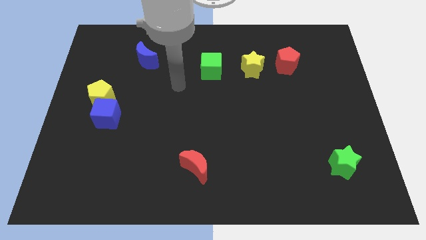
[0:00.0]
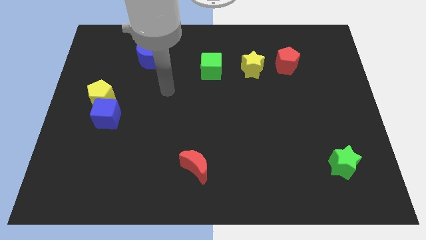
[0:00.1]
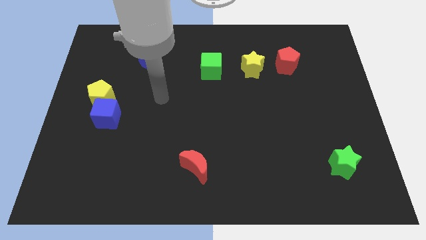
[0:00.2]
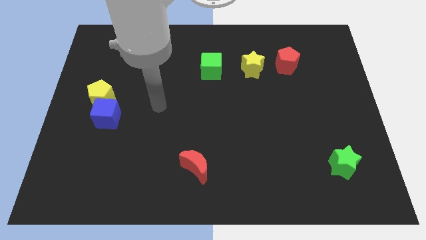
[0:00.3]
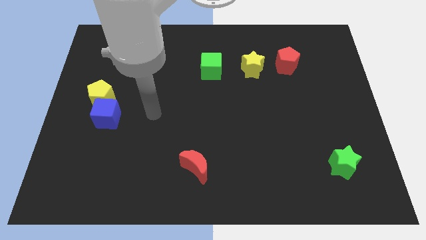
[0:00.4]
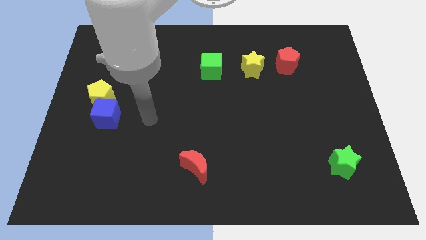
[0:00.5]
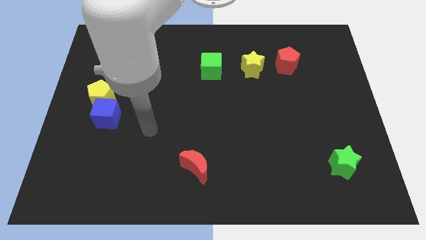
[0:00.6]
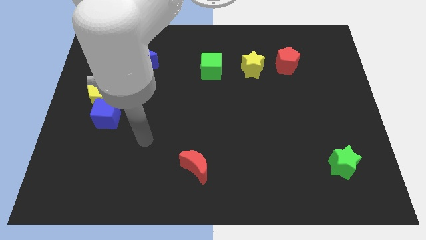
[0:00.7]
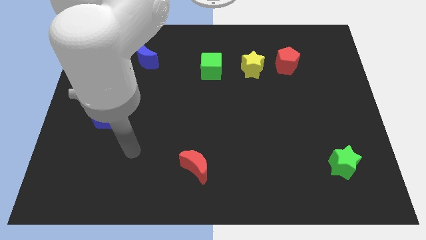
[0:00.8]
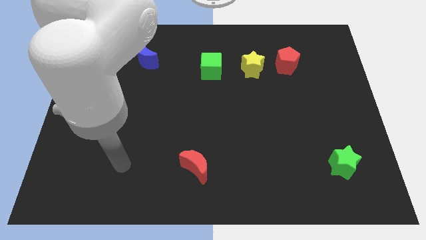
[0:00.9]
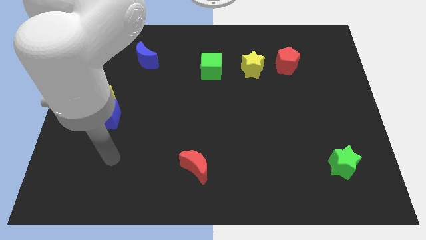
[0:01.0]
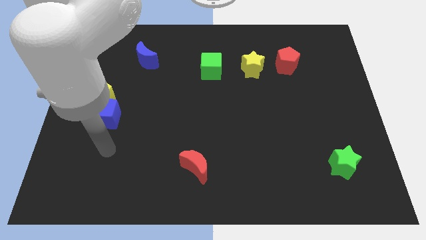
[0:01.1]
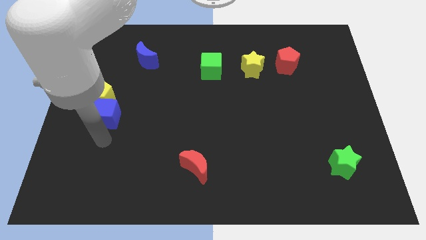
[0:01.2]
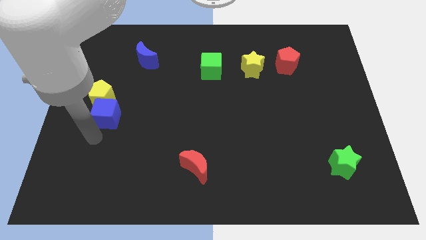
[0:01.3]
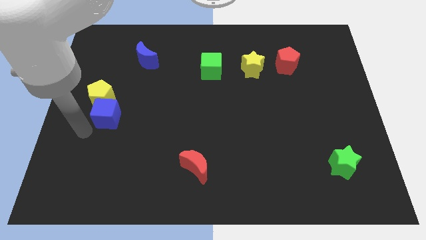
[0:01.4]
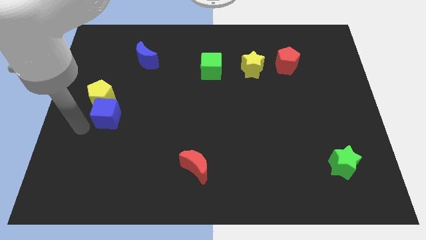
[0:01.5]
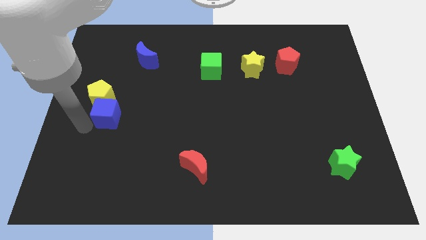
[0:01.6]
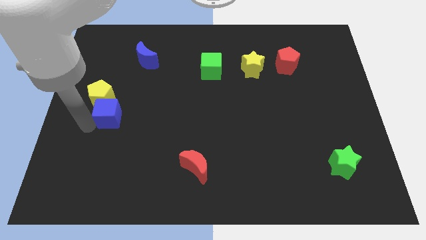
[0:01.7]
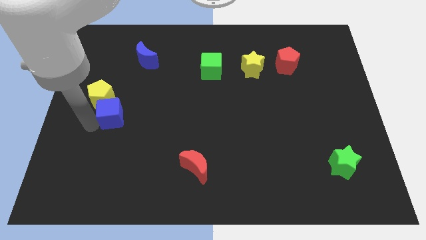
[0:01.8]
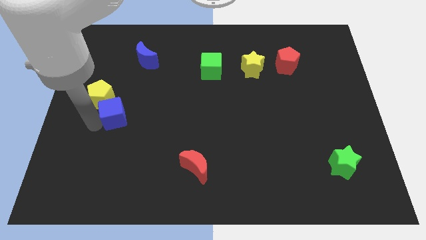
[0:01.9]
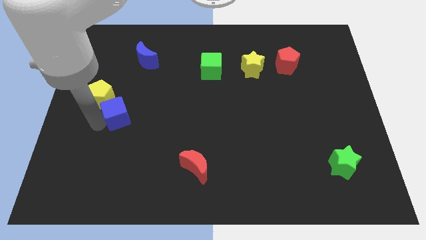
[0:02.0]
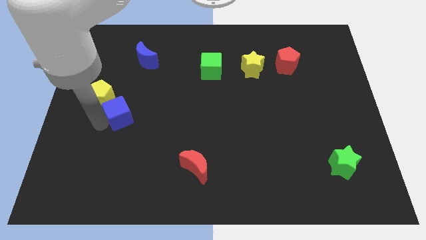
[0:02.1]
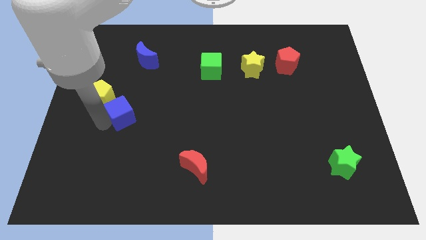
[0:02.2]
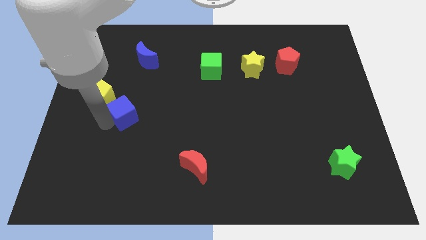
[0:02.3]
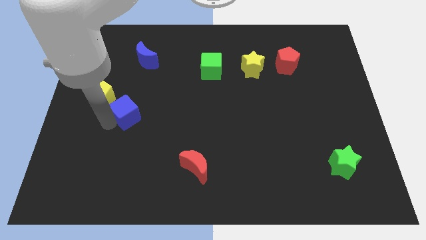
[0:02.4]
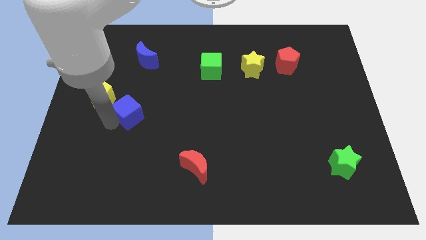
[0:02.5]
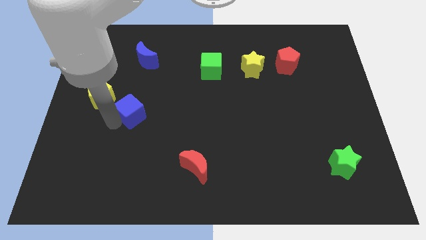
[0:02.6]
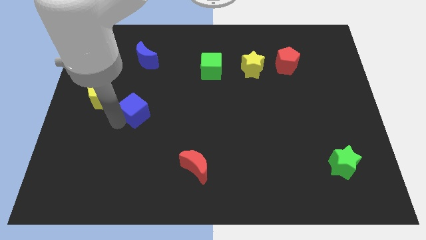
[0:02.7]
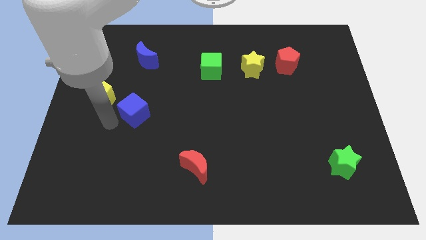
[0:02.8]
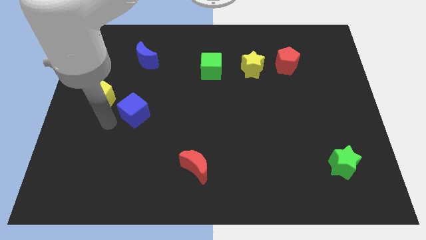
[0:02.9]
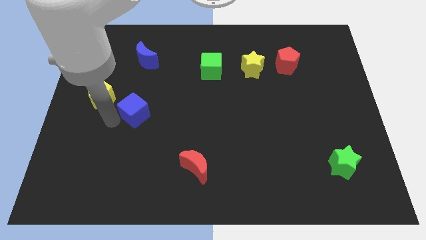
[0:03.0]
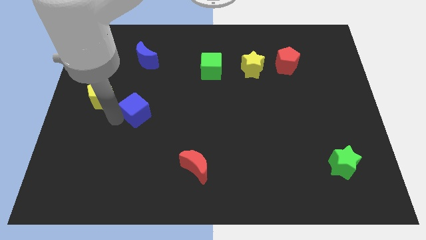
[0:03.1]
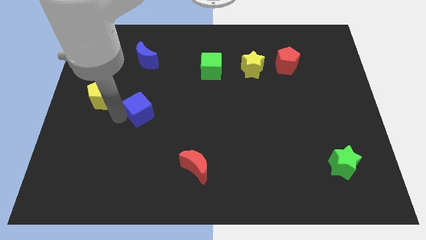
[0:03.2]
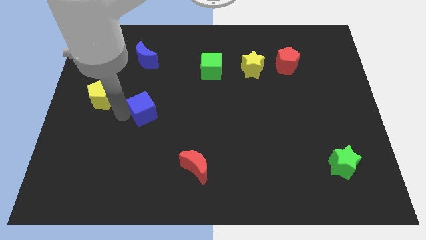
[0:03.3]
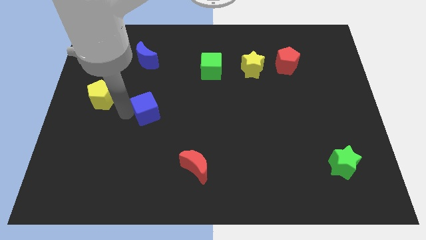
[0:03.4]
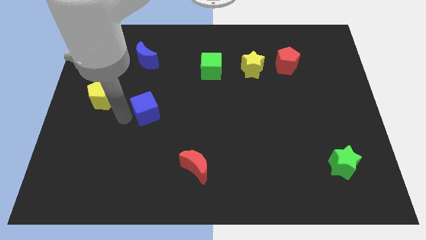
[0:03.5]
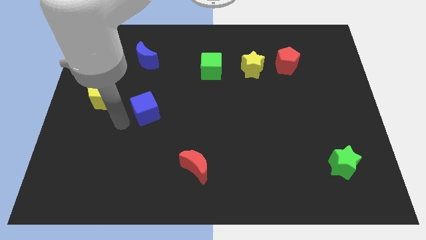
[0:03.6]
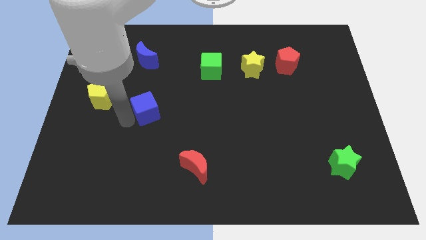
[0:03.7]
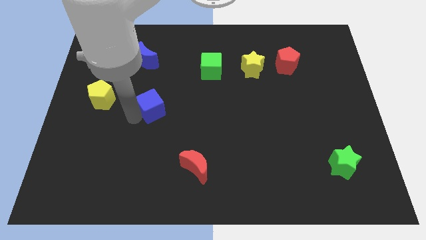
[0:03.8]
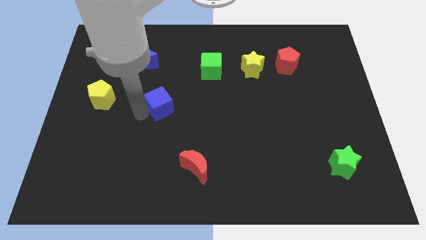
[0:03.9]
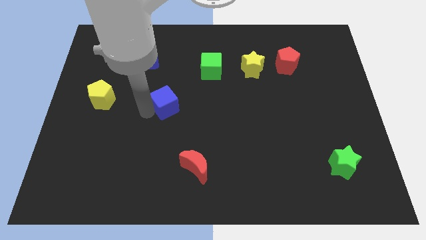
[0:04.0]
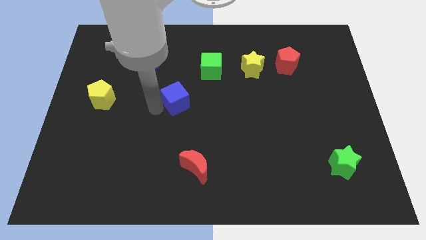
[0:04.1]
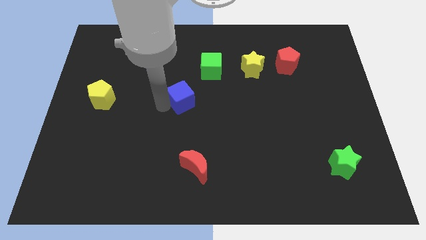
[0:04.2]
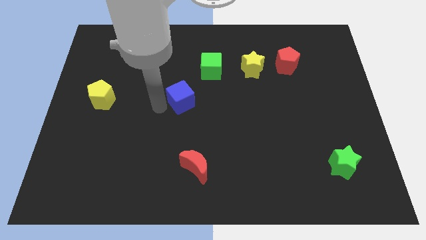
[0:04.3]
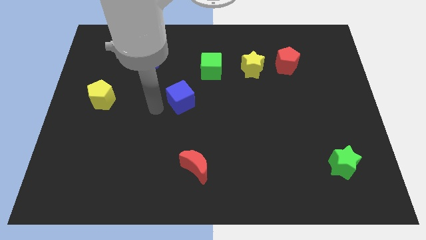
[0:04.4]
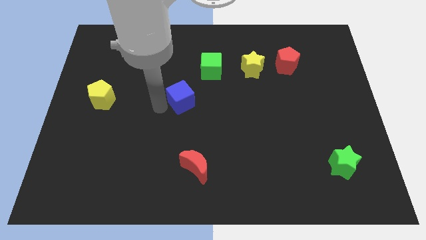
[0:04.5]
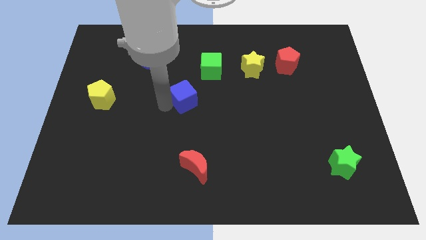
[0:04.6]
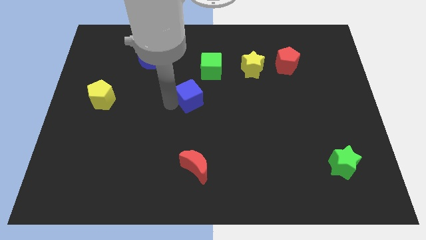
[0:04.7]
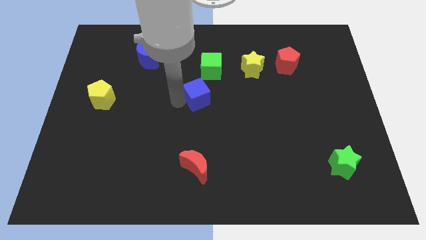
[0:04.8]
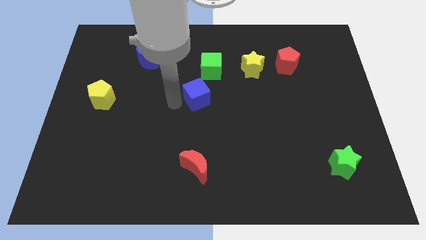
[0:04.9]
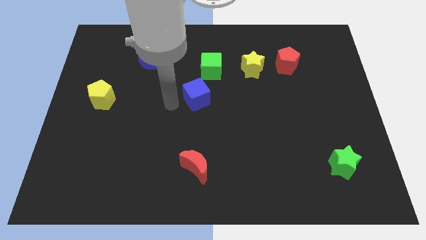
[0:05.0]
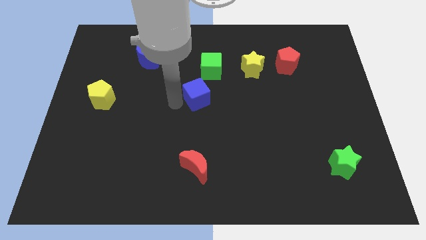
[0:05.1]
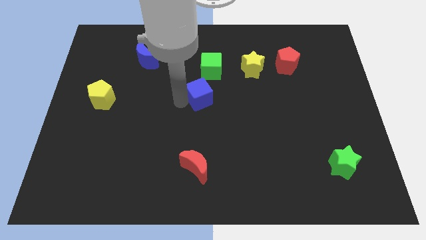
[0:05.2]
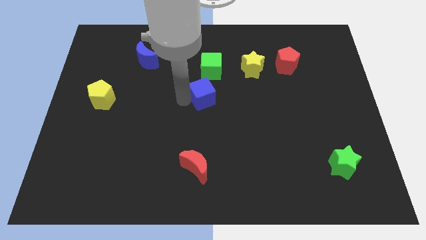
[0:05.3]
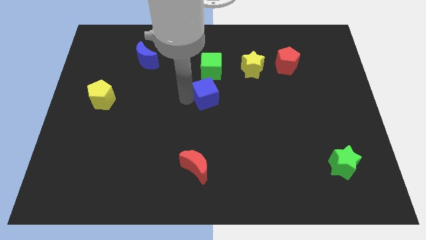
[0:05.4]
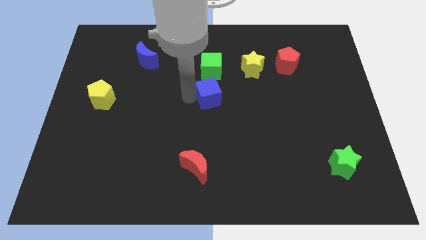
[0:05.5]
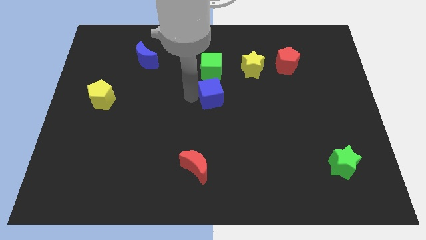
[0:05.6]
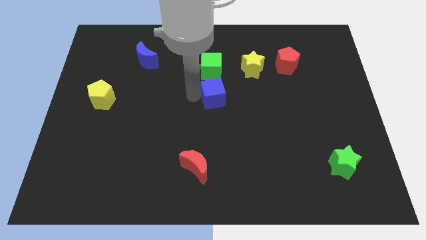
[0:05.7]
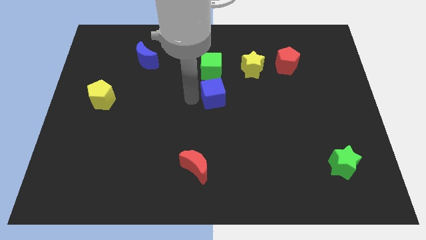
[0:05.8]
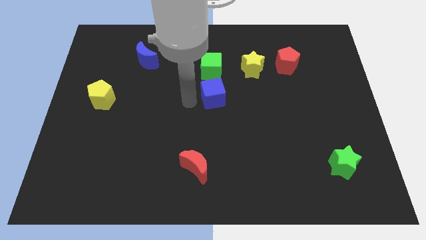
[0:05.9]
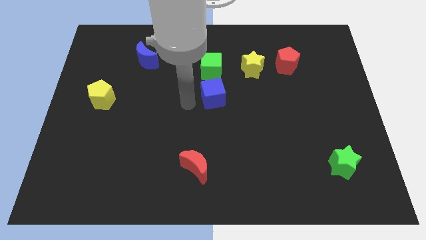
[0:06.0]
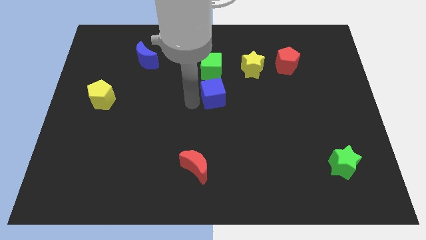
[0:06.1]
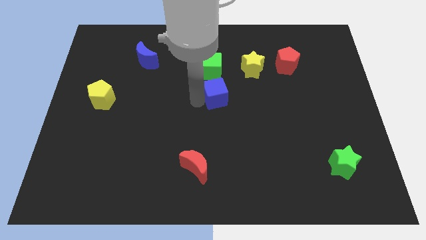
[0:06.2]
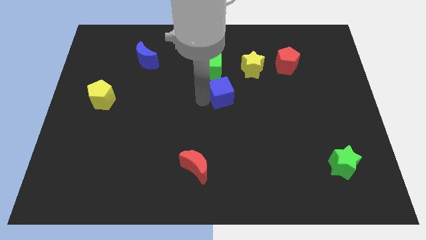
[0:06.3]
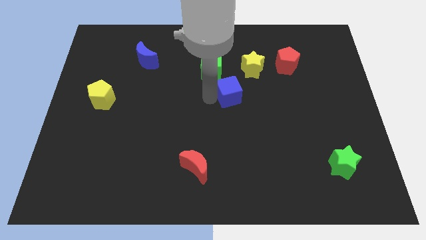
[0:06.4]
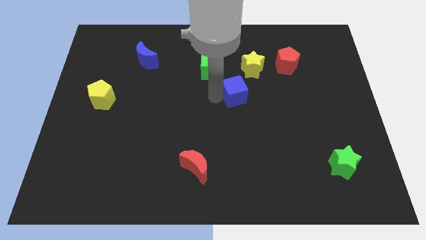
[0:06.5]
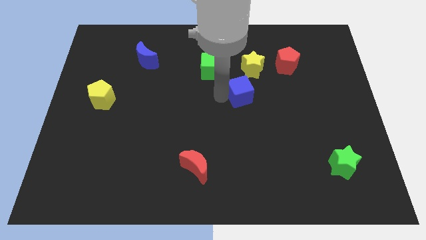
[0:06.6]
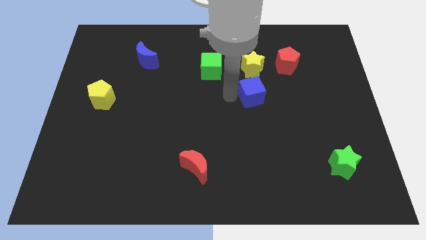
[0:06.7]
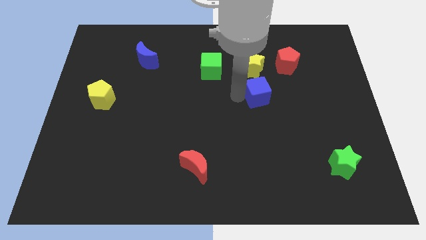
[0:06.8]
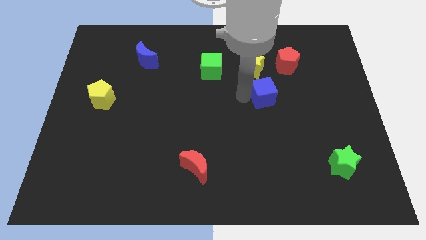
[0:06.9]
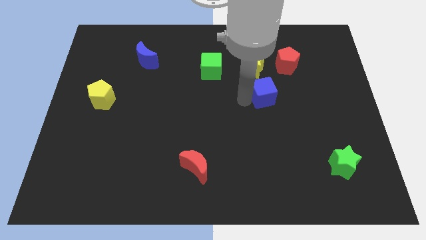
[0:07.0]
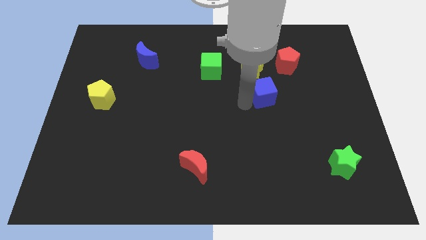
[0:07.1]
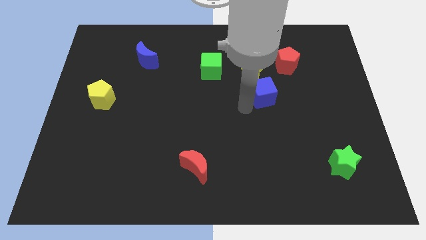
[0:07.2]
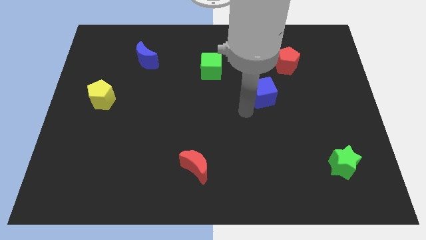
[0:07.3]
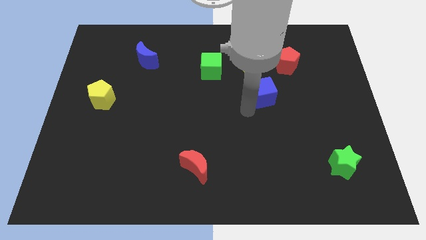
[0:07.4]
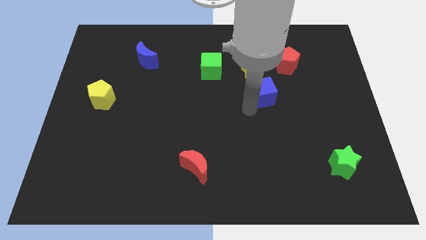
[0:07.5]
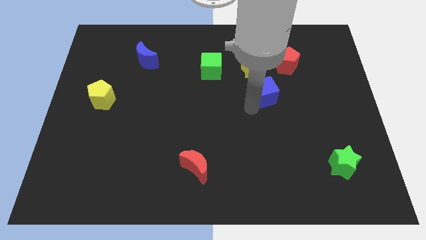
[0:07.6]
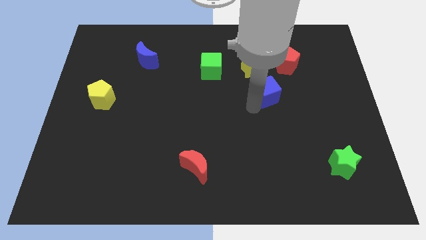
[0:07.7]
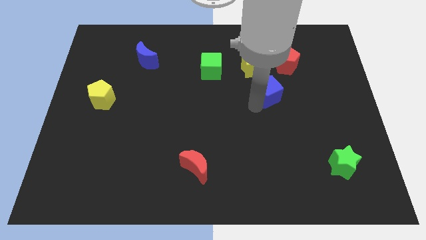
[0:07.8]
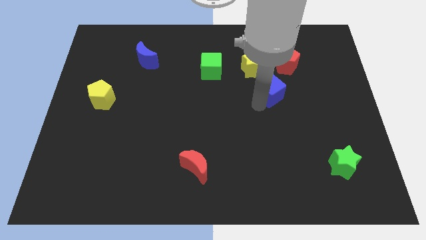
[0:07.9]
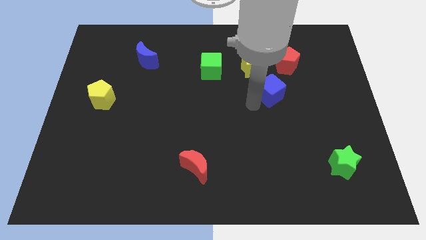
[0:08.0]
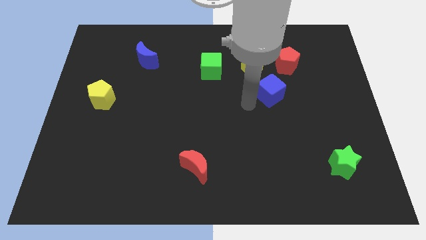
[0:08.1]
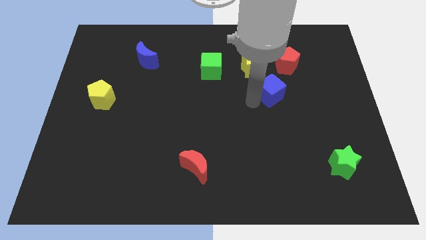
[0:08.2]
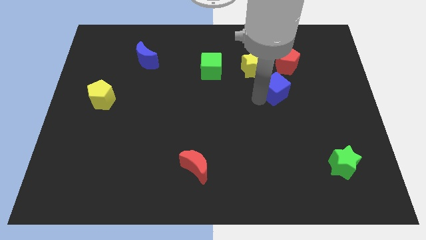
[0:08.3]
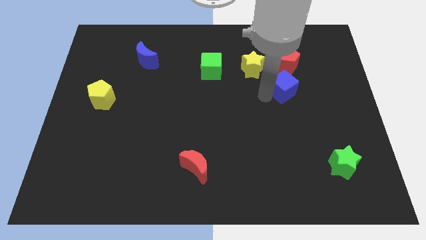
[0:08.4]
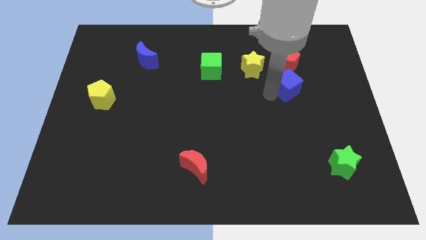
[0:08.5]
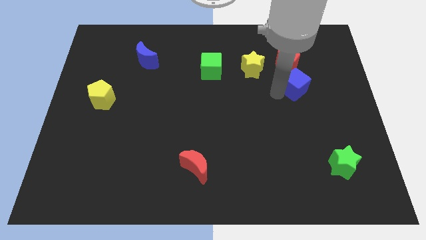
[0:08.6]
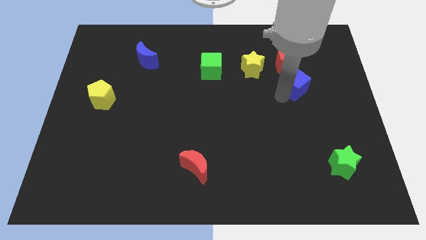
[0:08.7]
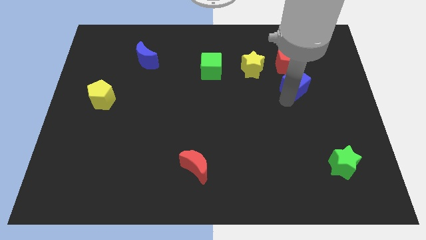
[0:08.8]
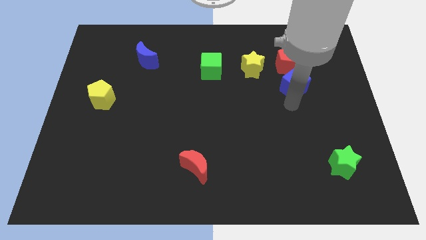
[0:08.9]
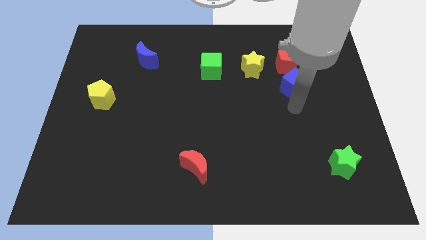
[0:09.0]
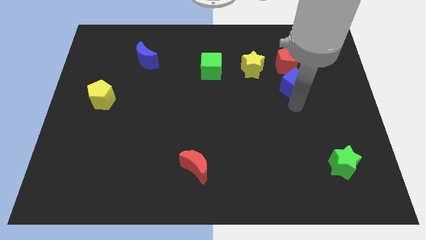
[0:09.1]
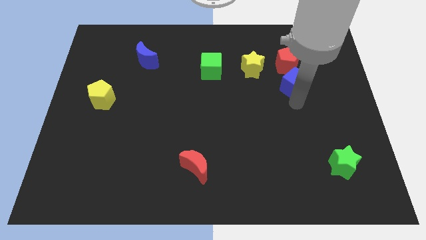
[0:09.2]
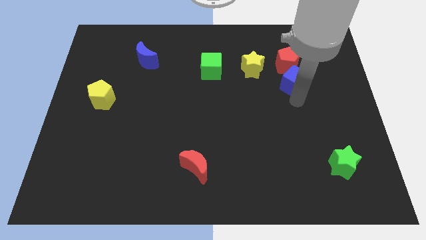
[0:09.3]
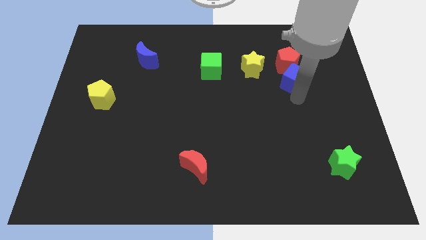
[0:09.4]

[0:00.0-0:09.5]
put the blue cube just right of the yellow star
